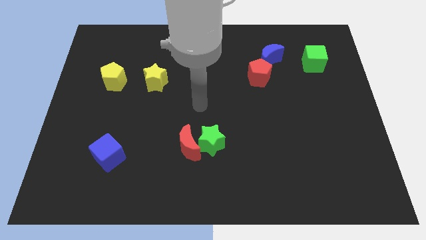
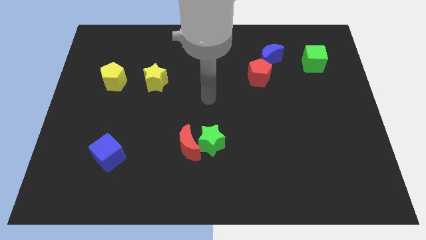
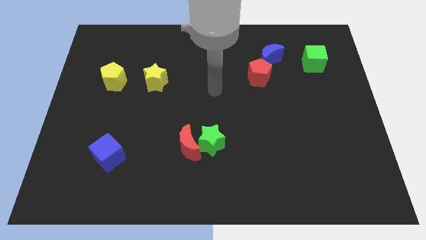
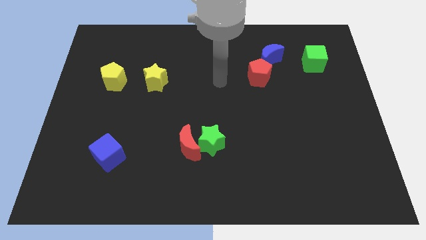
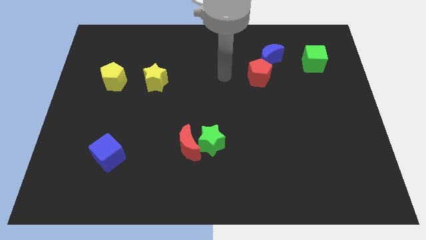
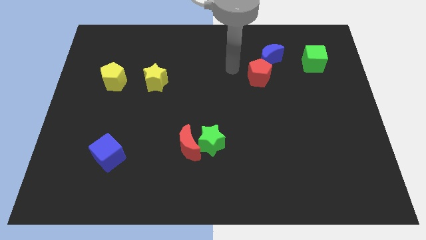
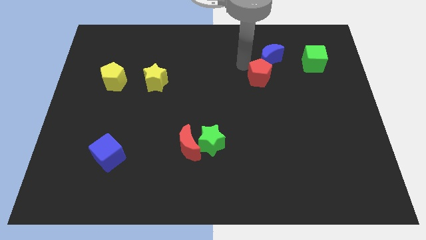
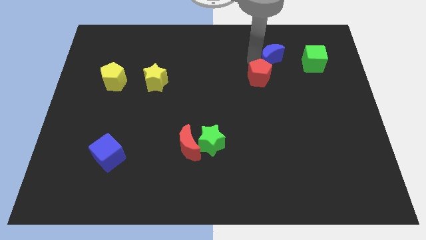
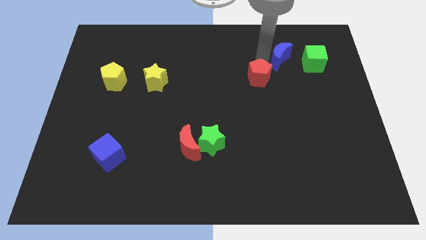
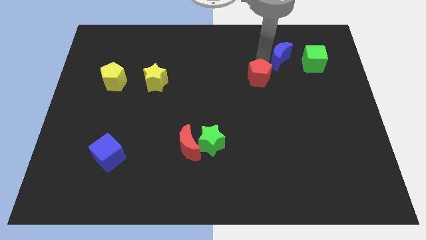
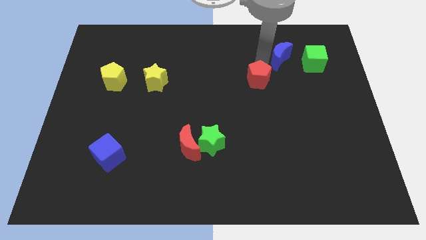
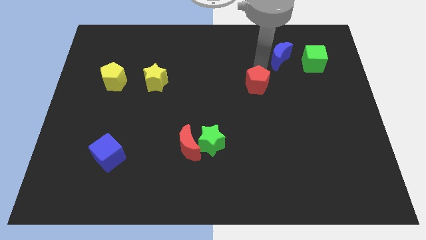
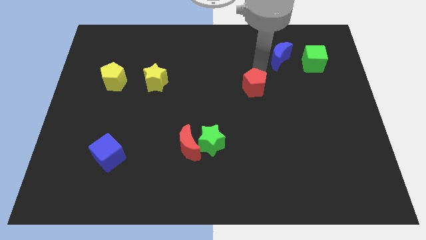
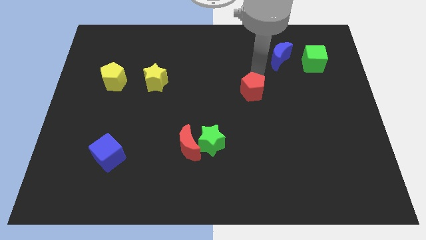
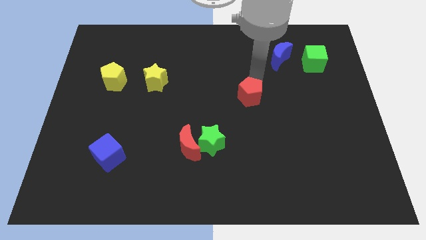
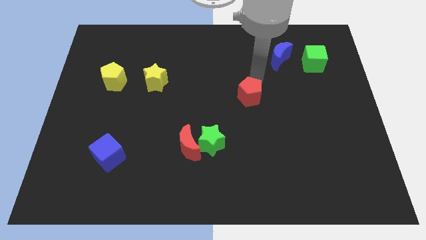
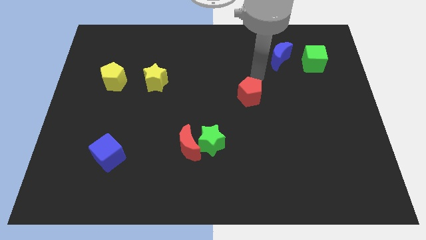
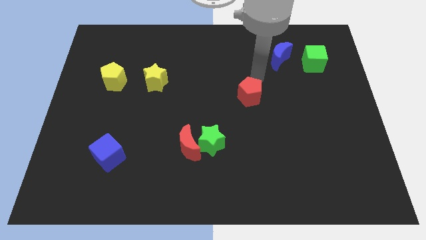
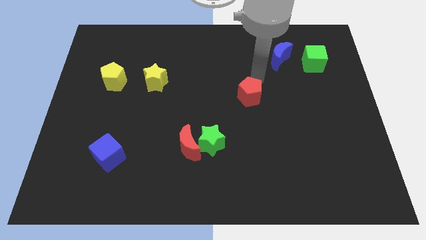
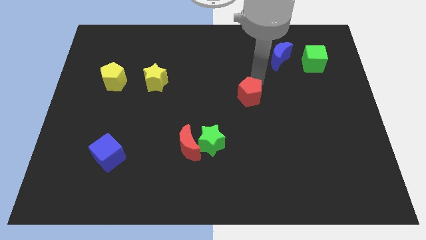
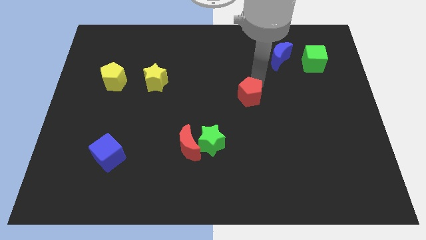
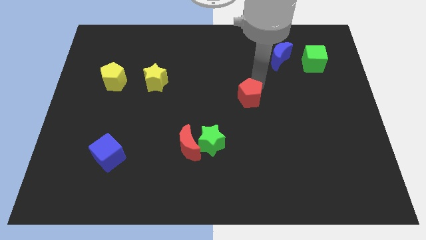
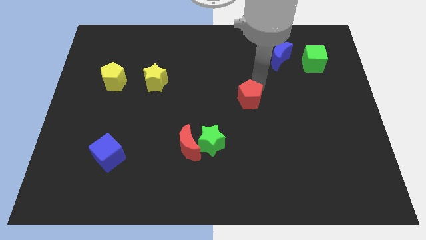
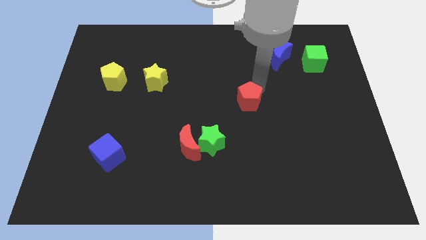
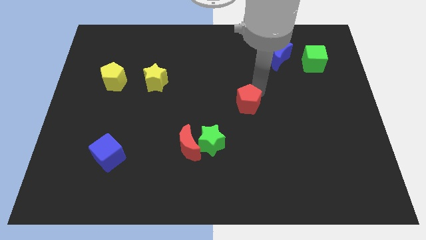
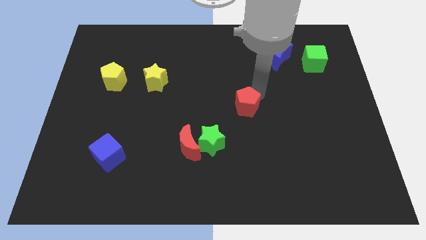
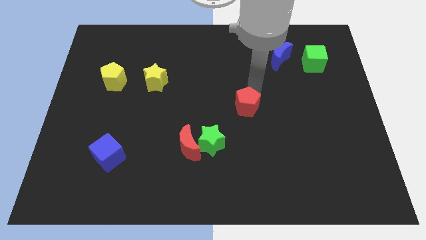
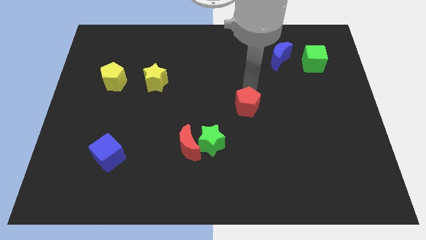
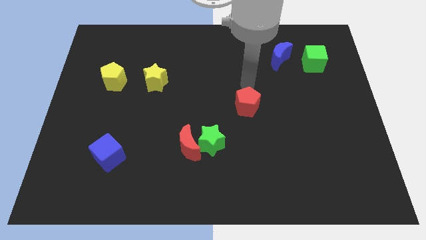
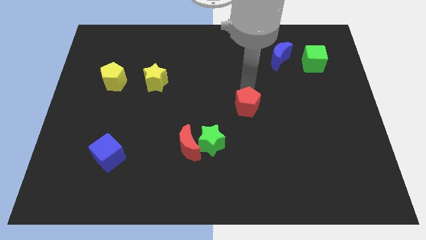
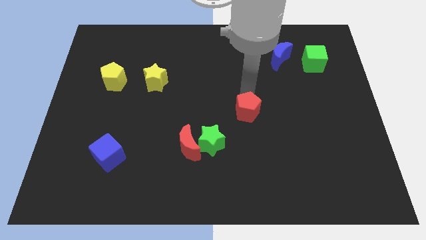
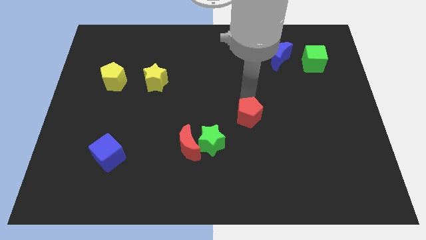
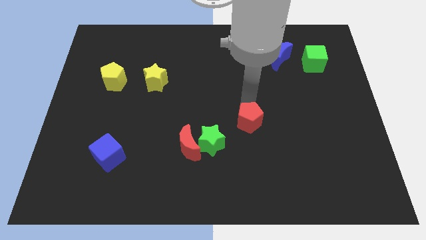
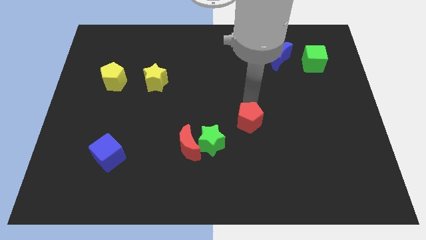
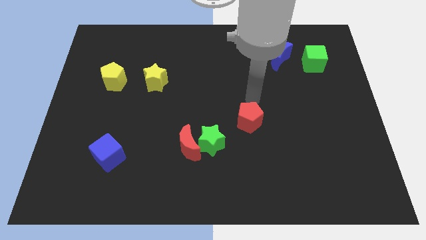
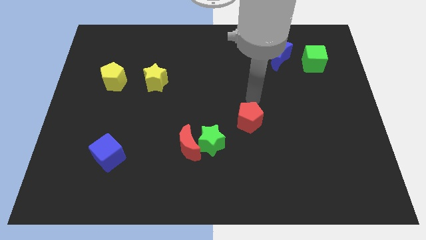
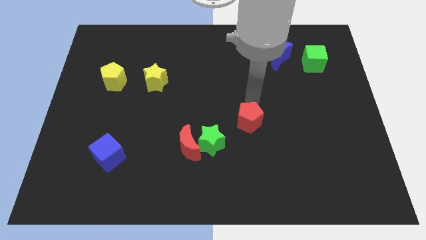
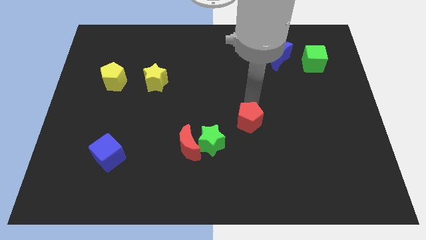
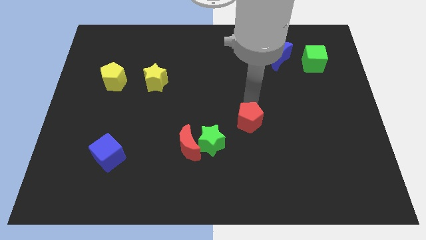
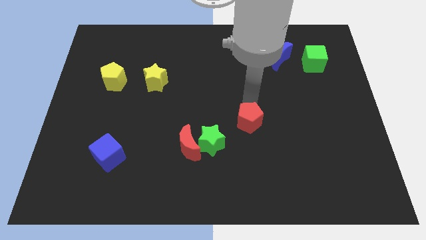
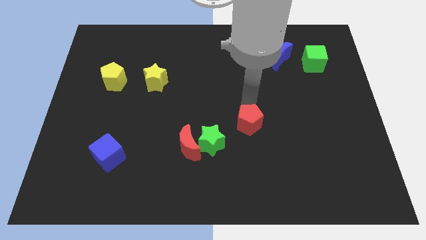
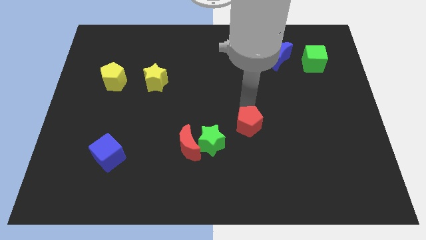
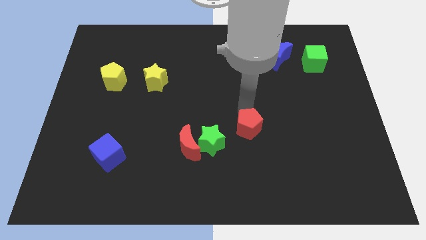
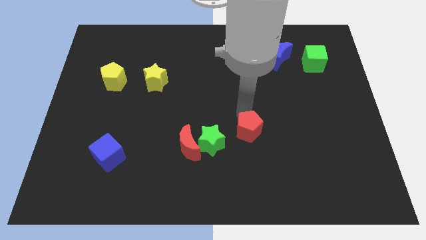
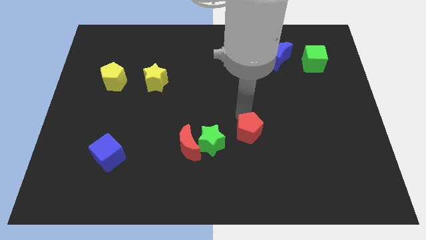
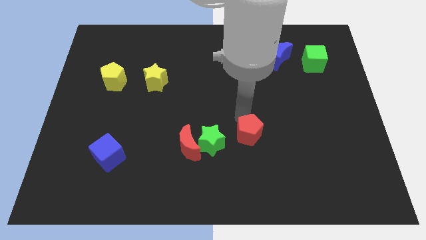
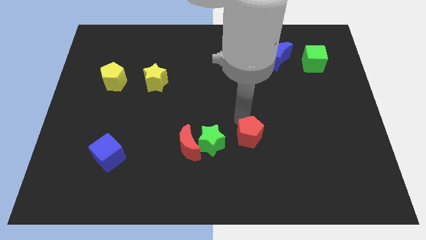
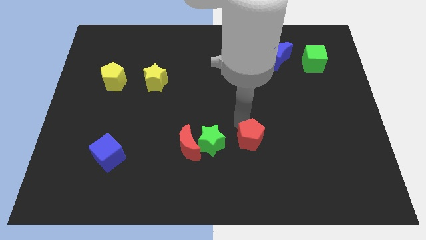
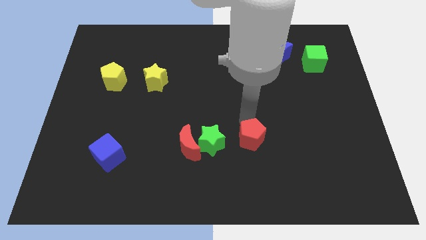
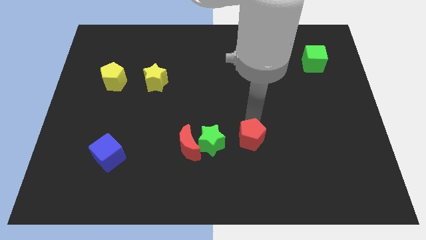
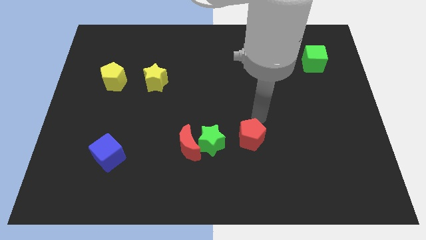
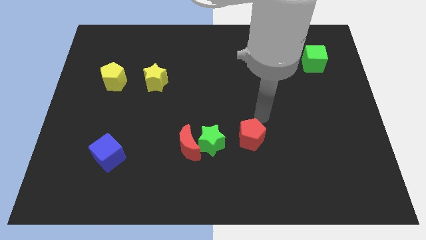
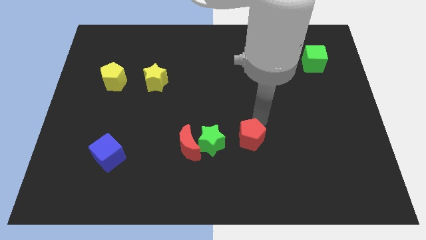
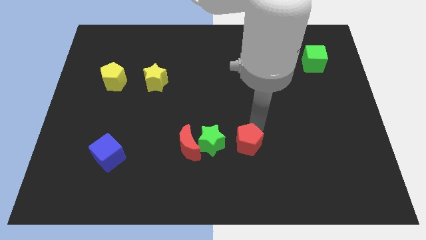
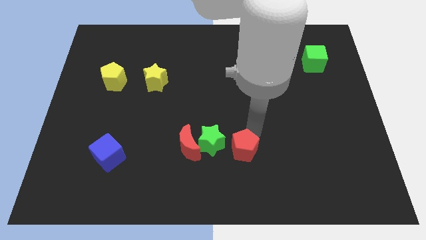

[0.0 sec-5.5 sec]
move the red pentagon to the bottom right side of the green star

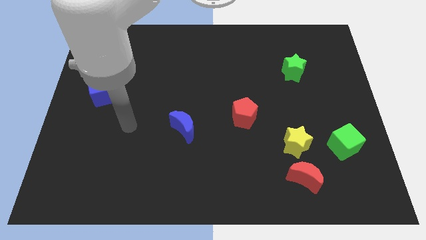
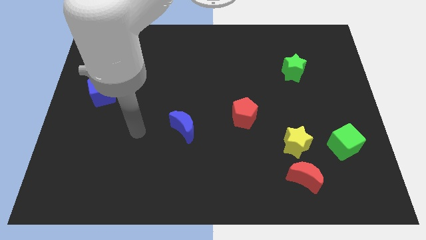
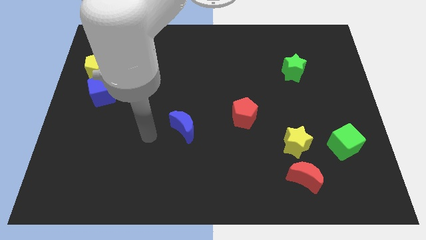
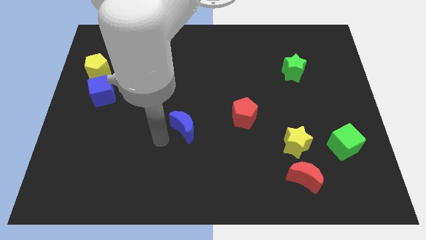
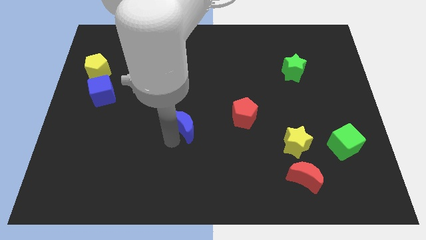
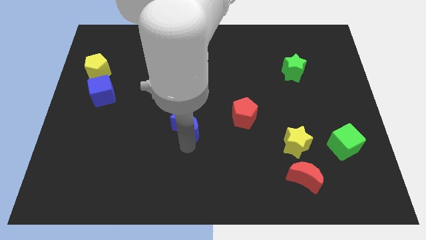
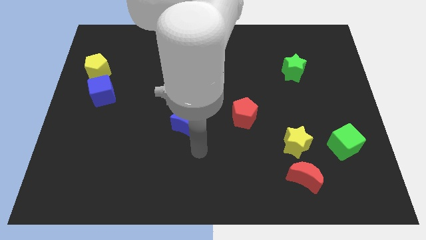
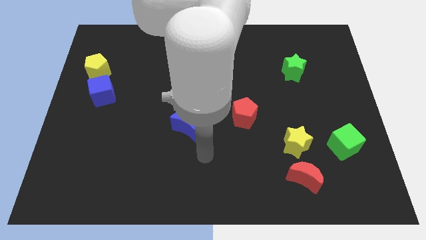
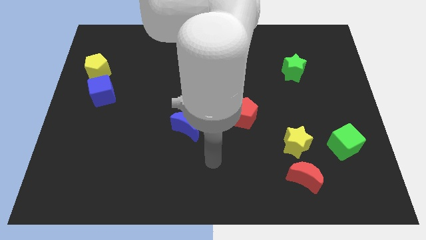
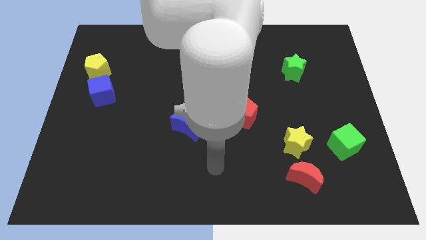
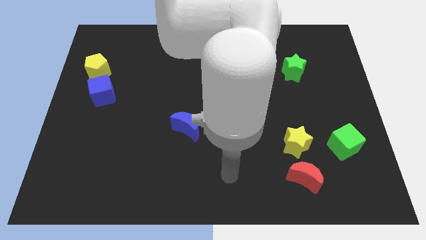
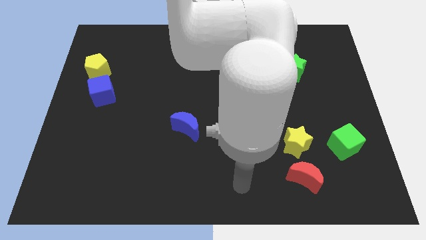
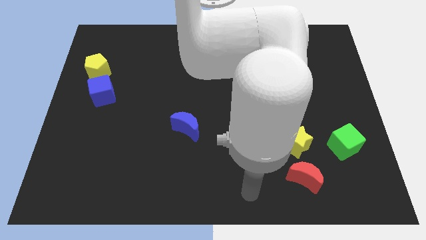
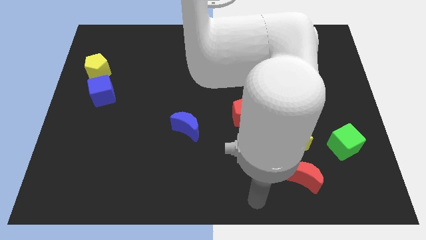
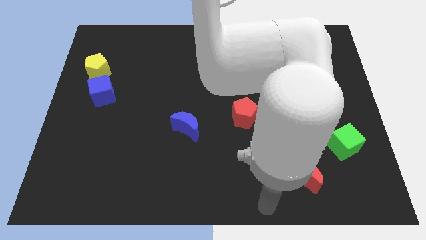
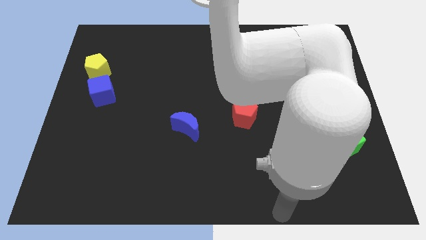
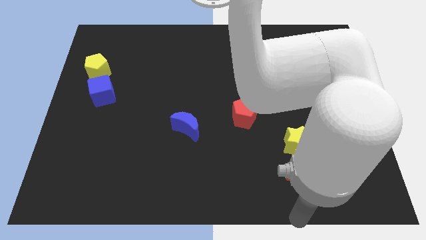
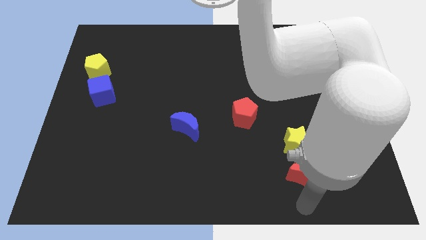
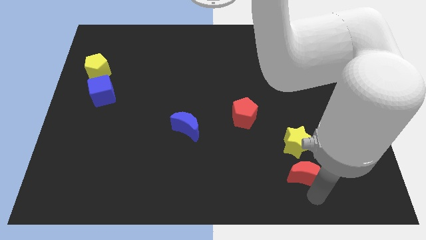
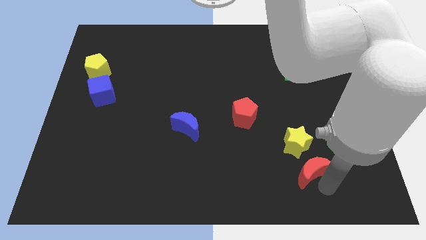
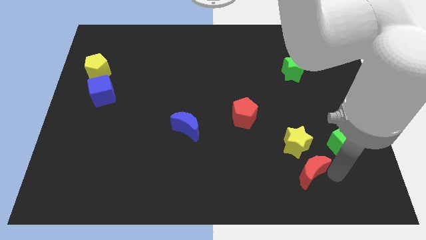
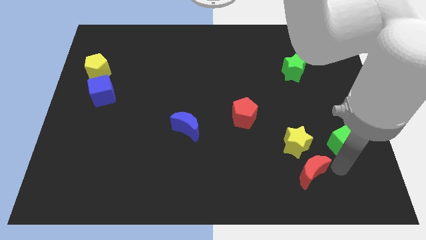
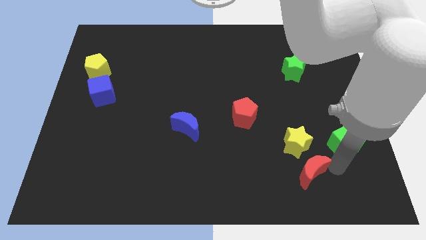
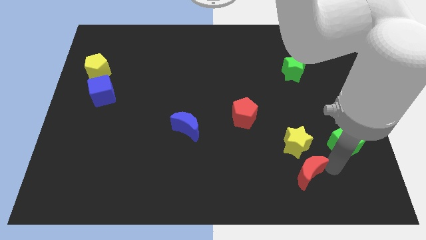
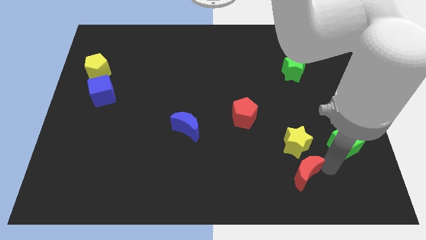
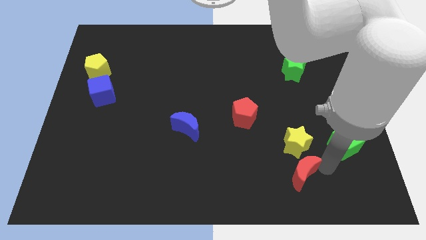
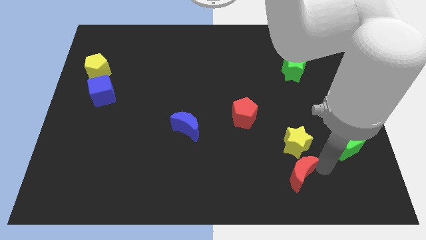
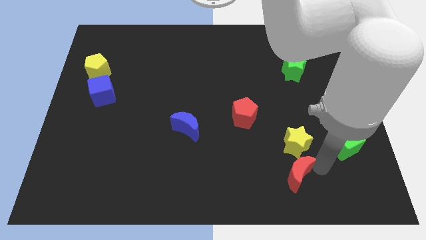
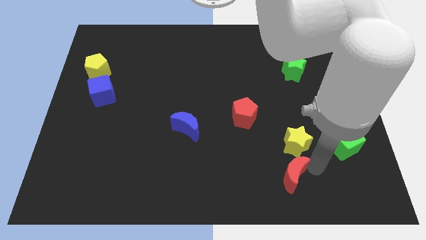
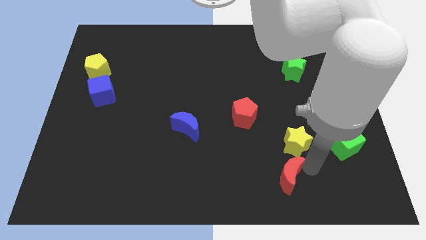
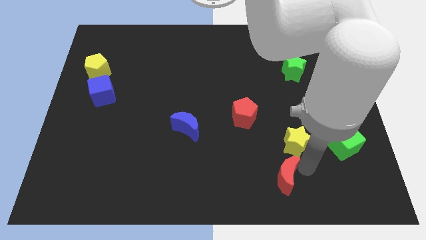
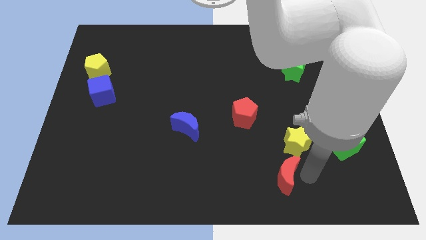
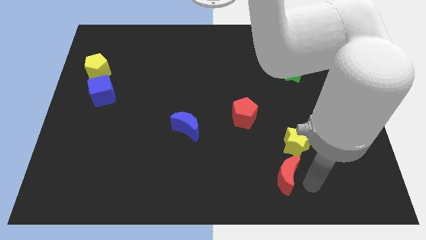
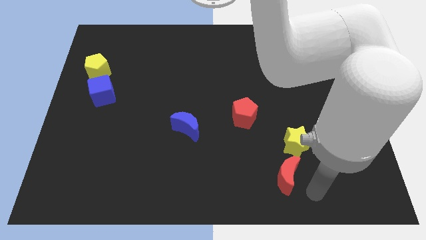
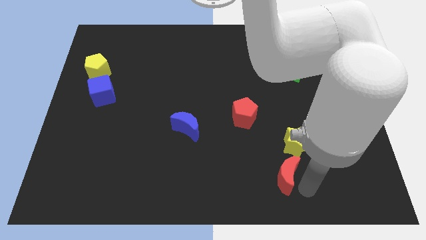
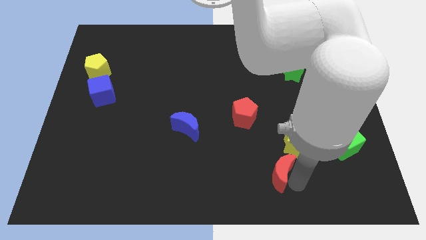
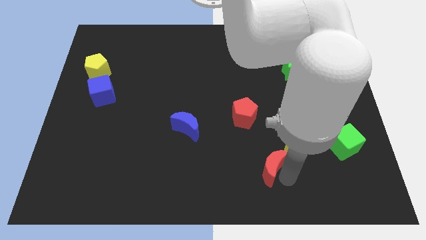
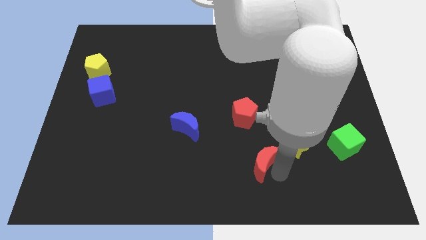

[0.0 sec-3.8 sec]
put the red moon below the red pentagon
